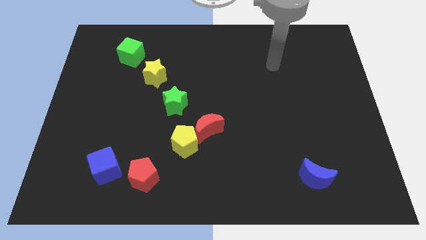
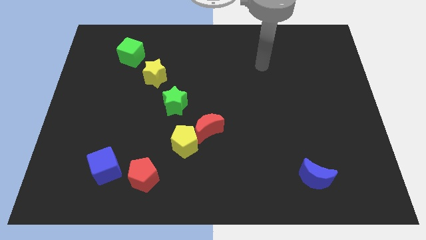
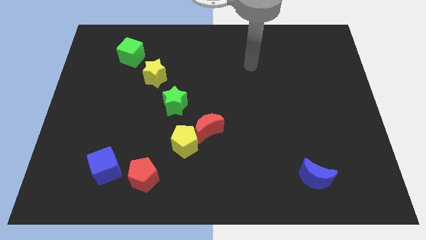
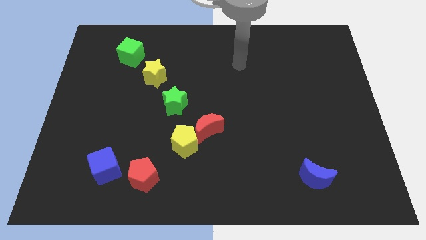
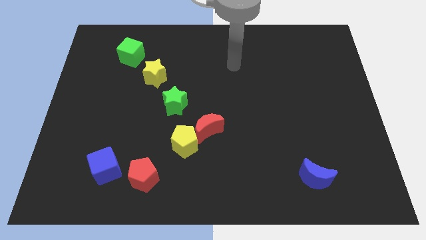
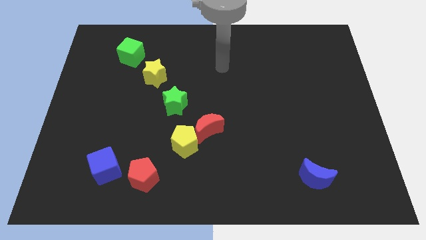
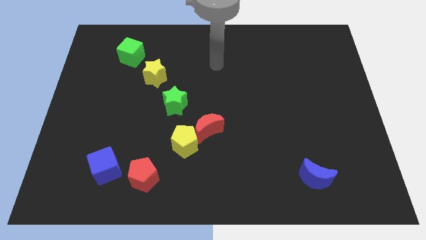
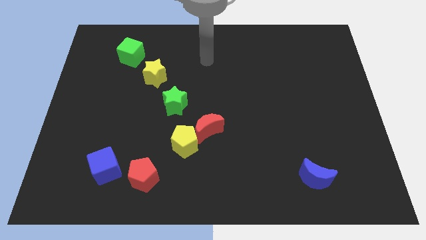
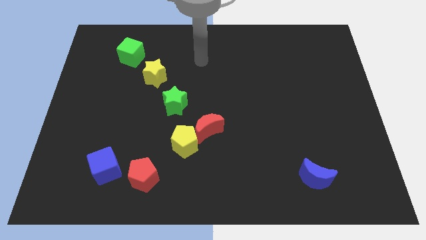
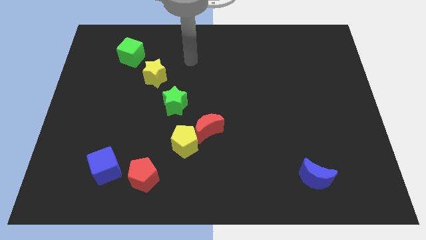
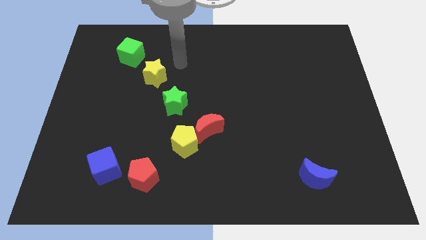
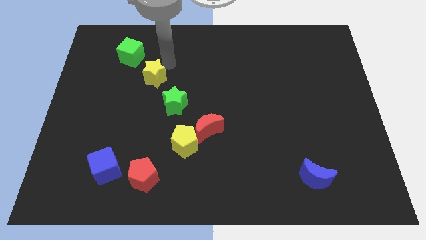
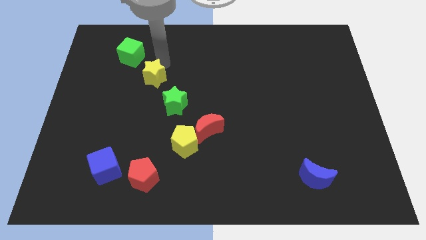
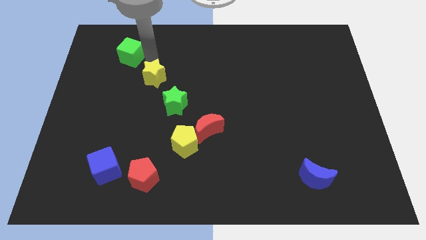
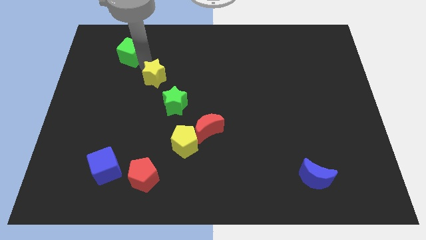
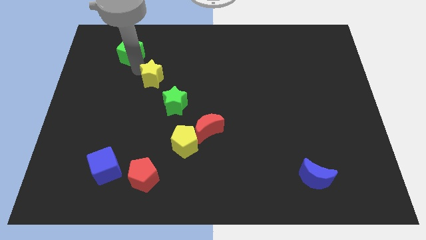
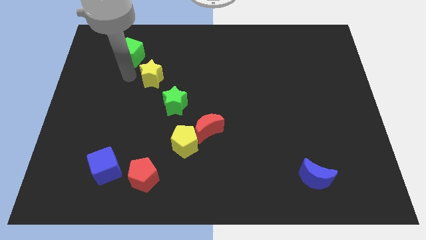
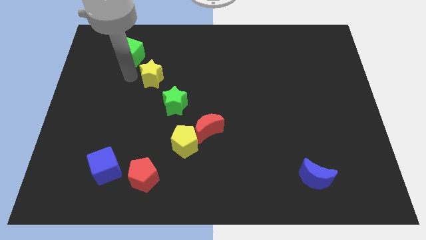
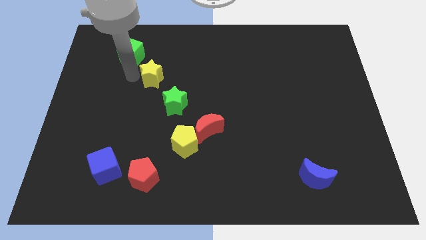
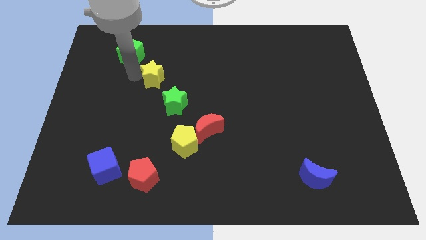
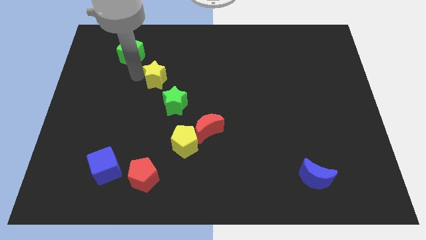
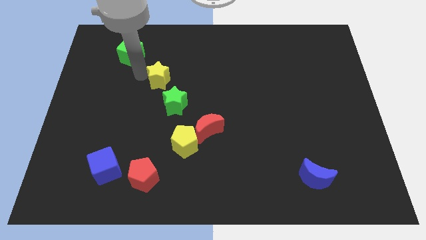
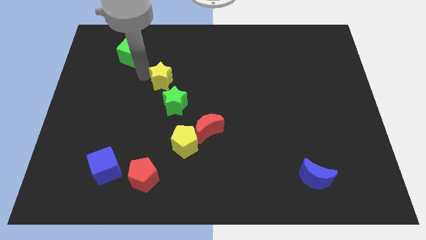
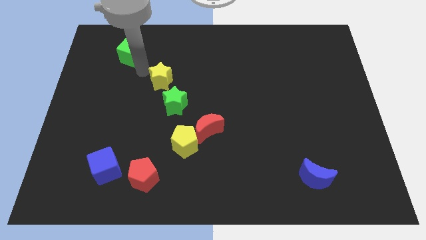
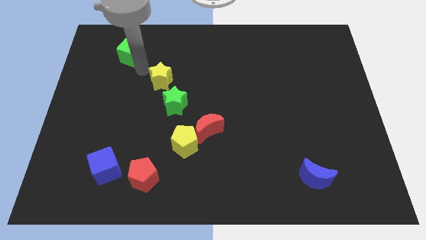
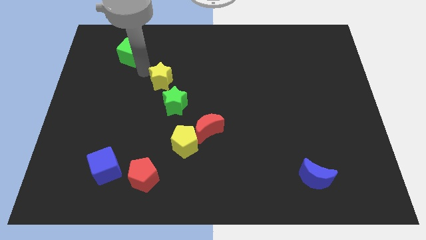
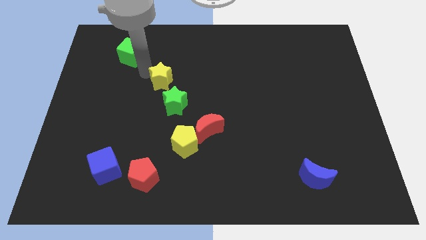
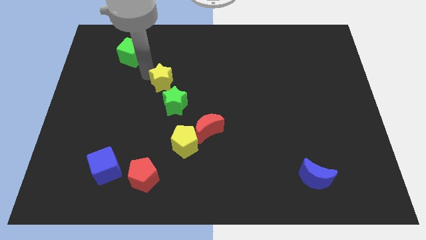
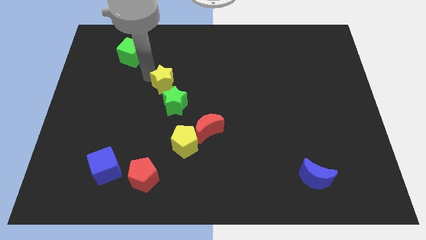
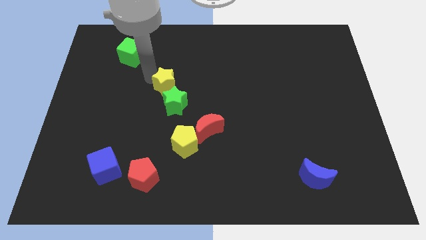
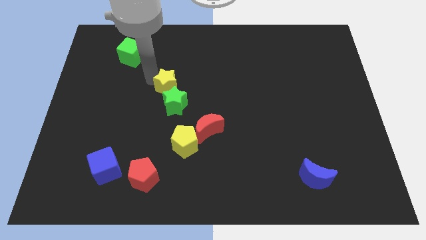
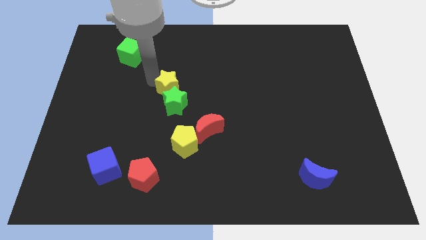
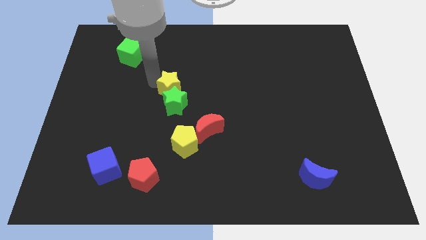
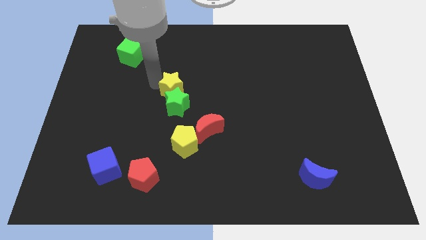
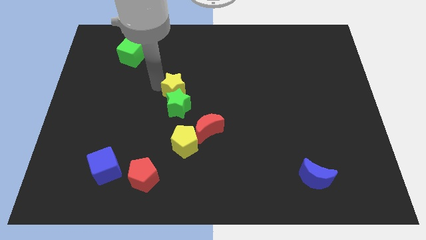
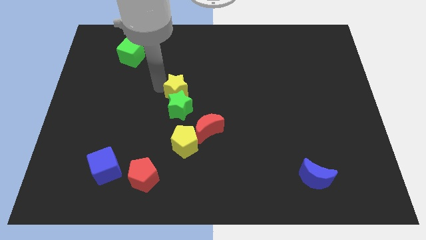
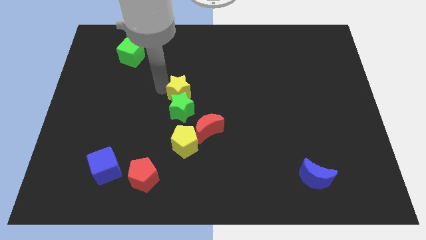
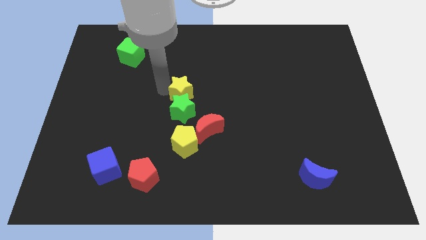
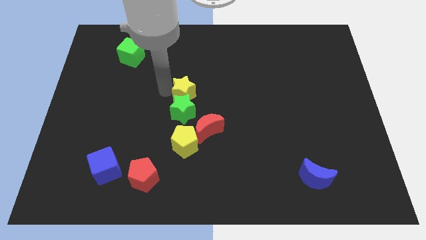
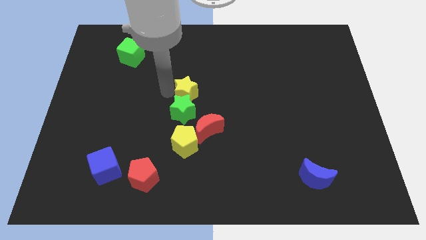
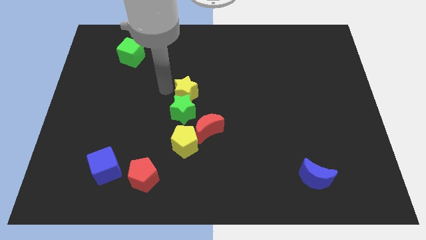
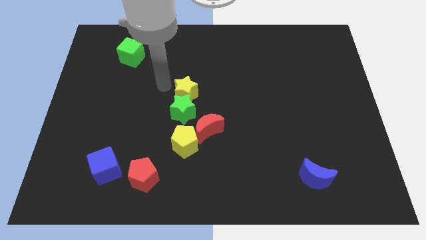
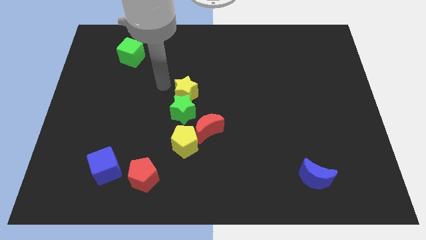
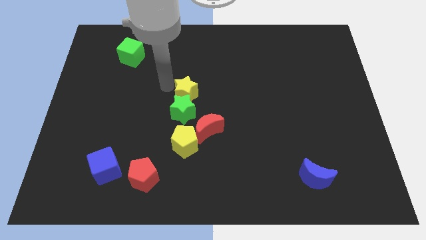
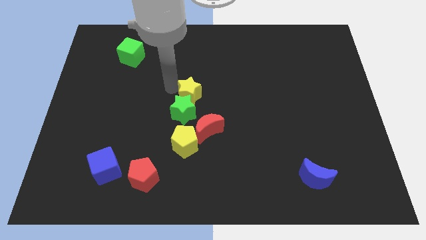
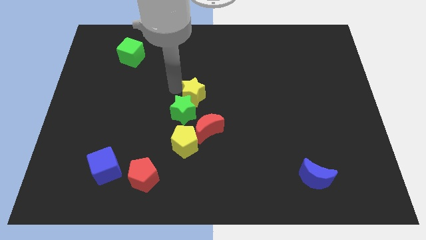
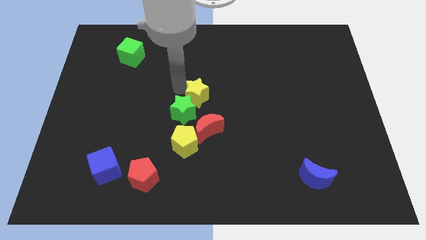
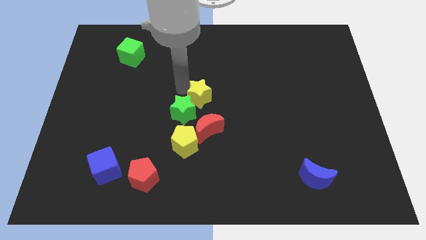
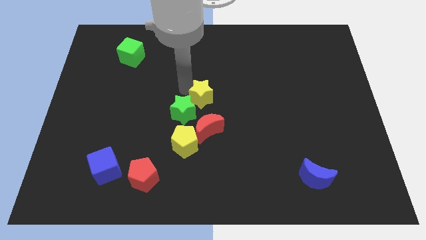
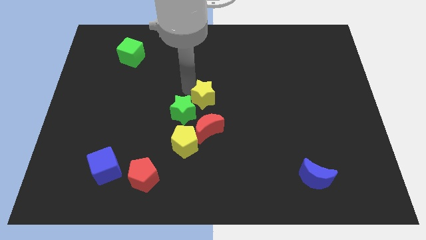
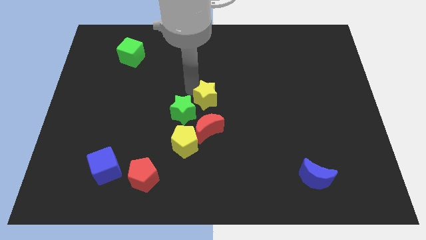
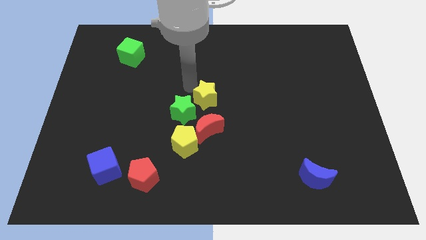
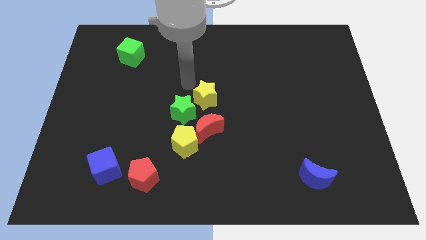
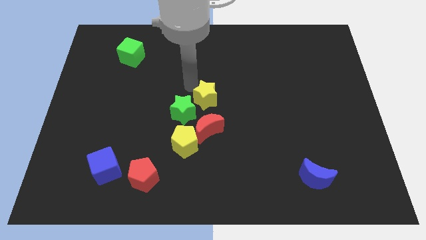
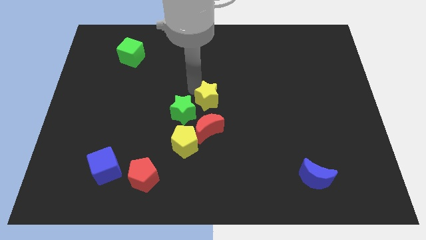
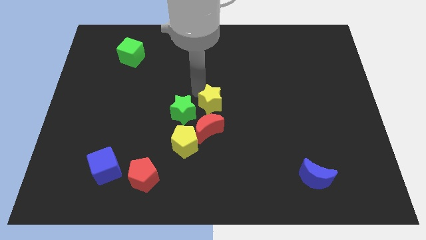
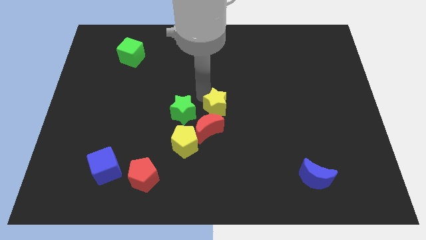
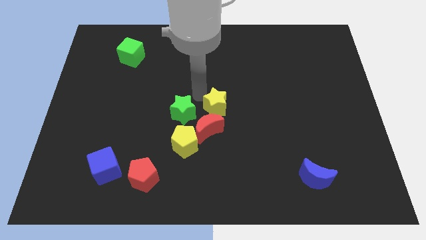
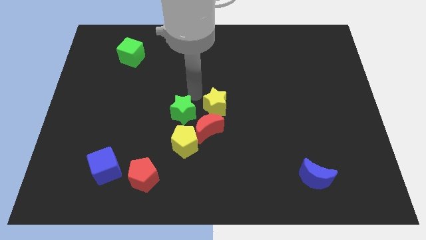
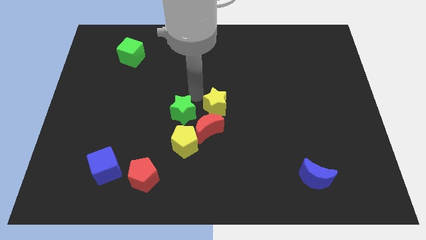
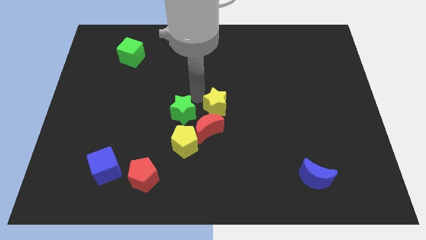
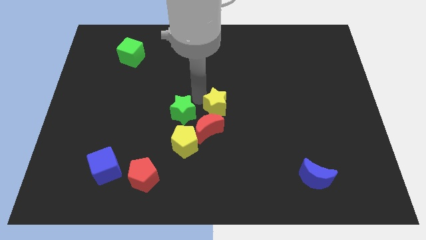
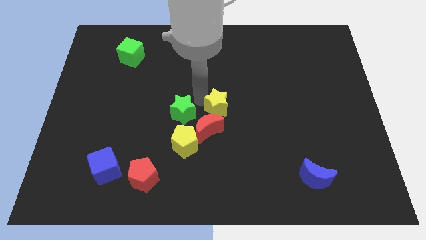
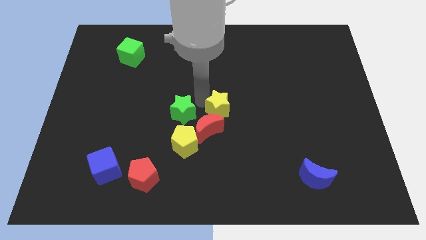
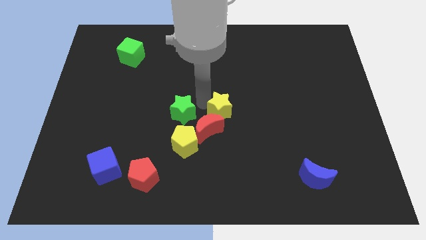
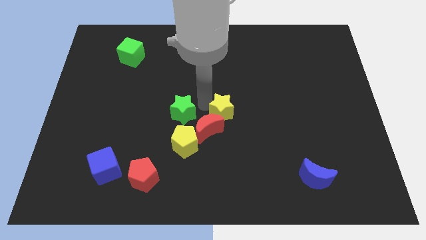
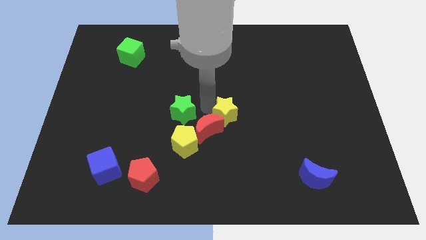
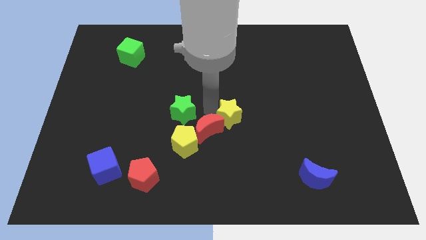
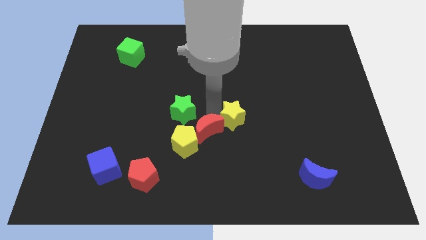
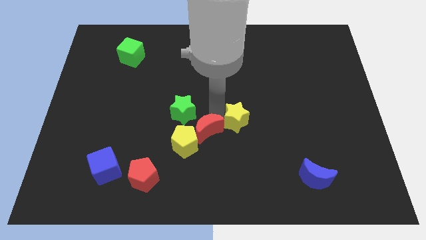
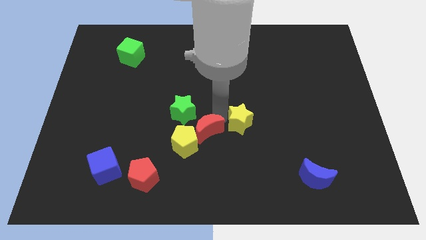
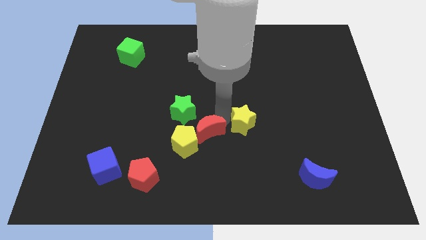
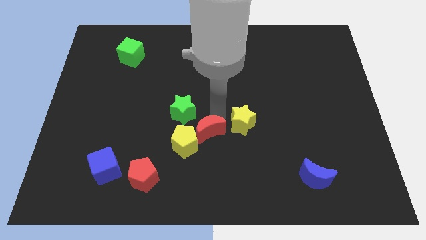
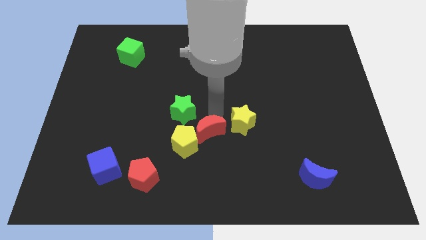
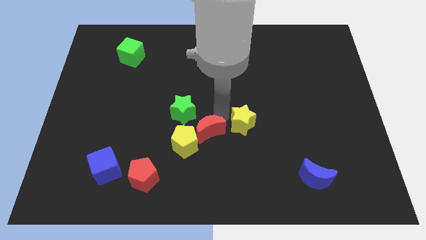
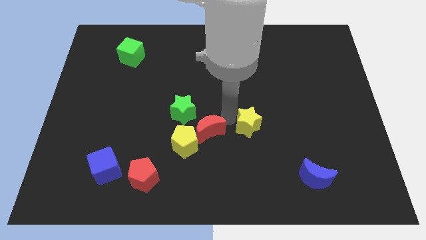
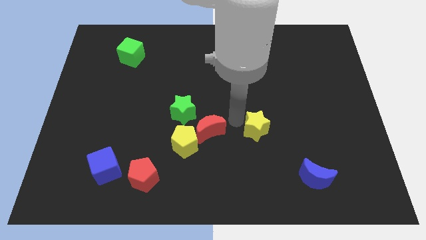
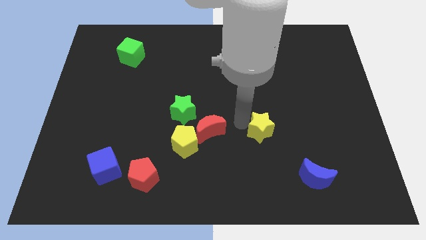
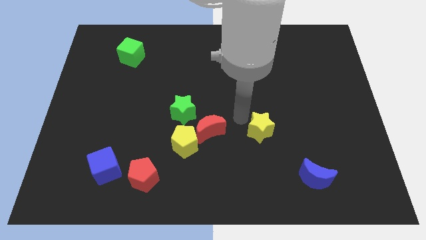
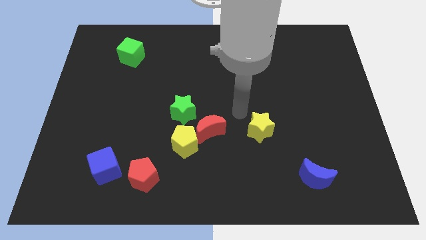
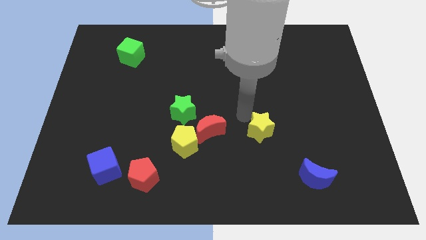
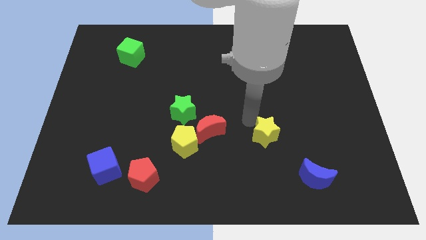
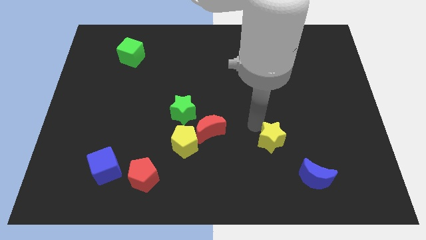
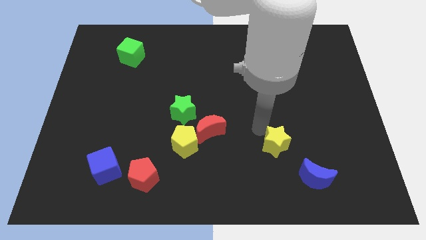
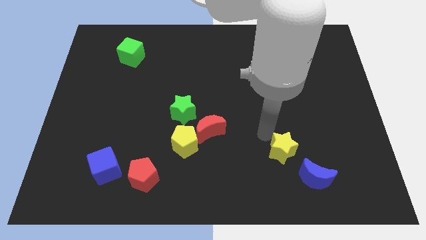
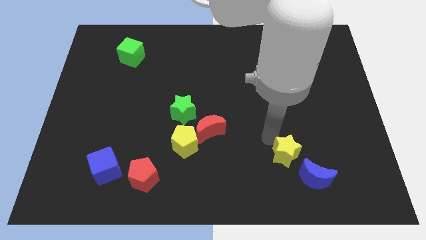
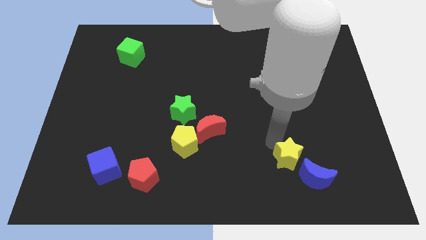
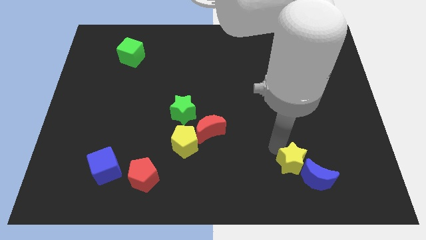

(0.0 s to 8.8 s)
put the yellow star to the blue moon
